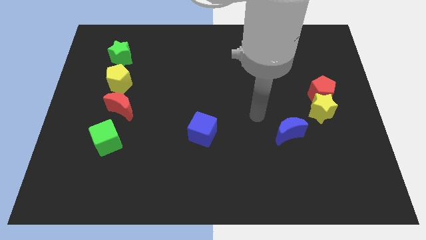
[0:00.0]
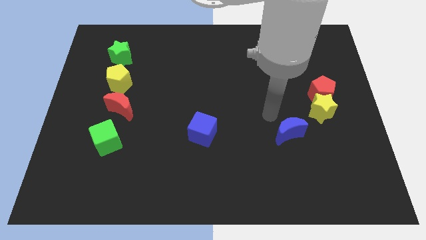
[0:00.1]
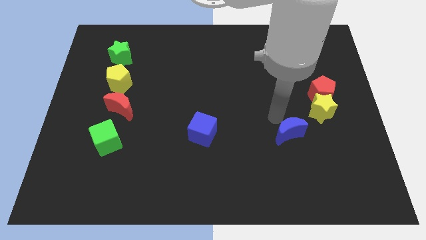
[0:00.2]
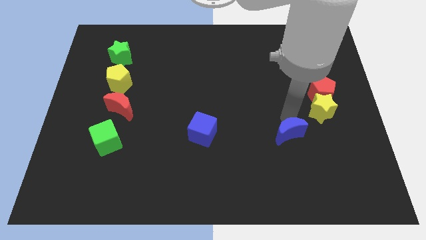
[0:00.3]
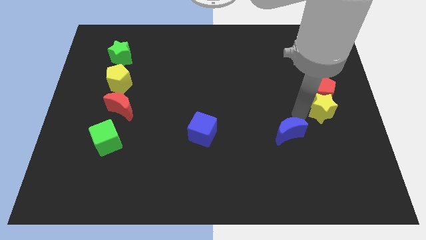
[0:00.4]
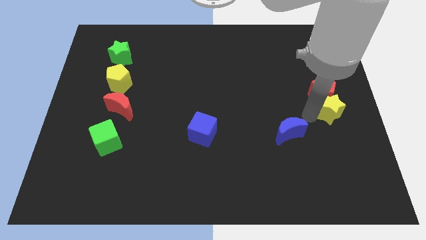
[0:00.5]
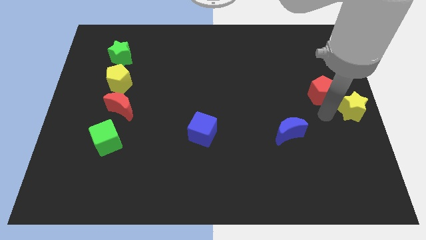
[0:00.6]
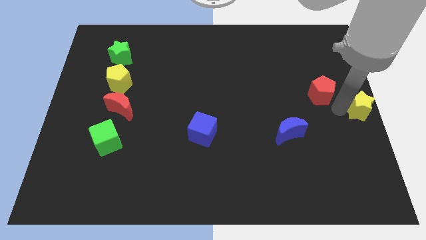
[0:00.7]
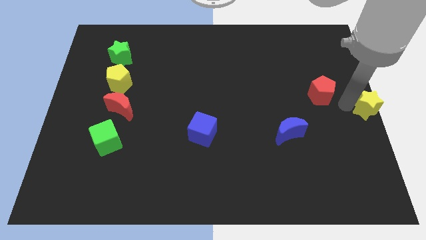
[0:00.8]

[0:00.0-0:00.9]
pull the red pentagon apart from the yellow star

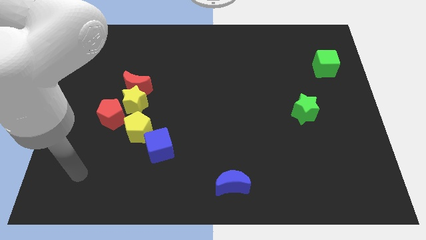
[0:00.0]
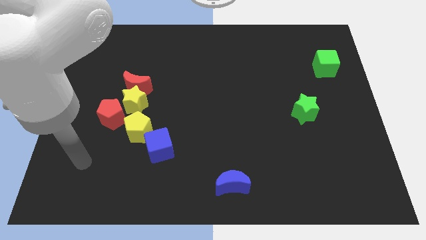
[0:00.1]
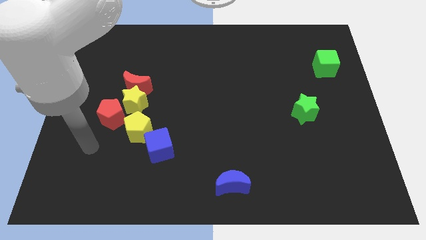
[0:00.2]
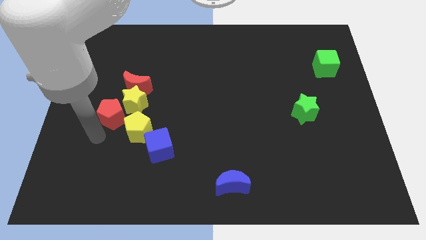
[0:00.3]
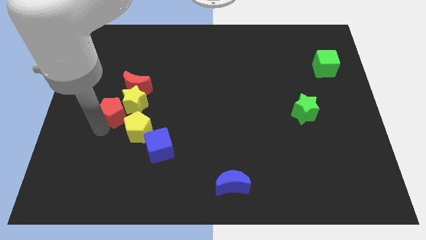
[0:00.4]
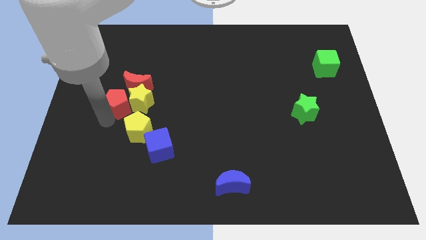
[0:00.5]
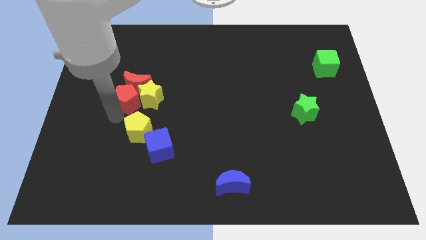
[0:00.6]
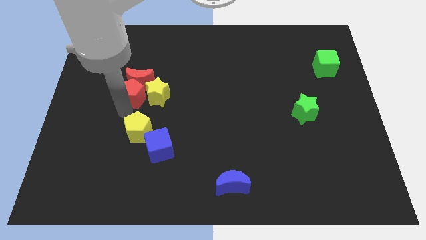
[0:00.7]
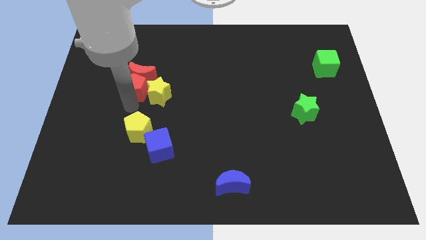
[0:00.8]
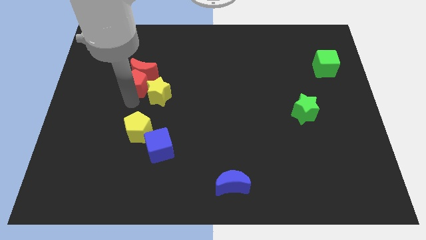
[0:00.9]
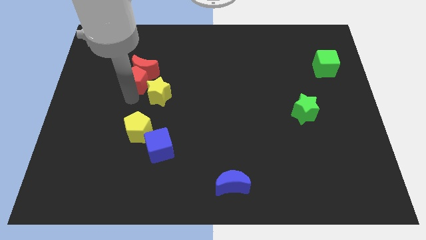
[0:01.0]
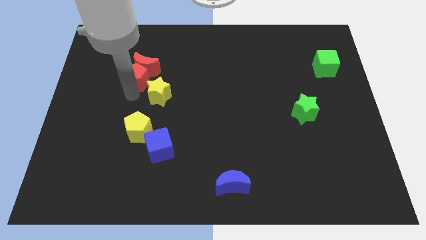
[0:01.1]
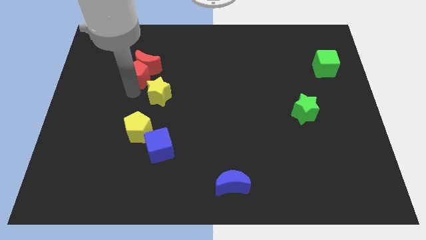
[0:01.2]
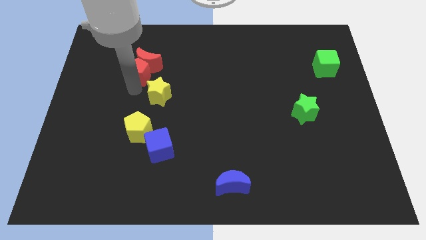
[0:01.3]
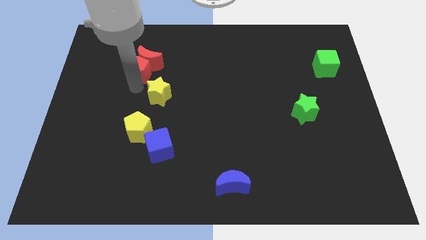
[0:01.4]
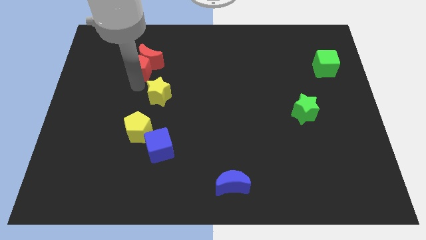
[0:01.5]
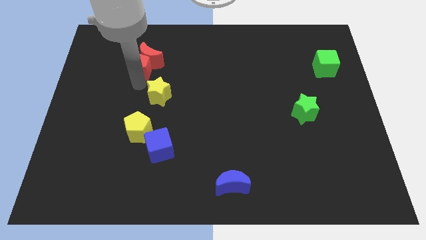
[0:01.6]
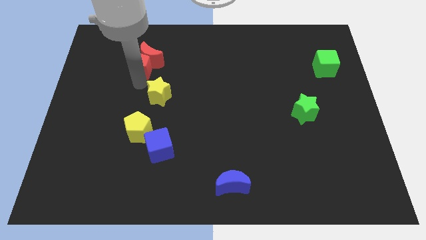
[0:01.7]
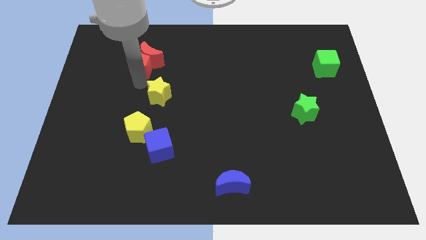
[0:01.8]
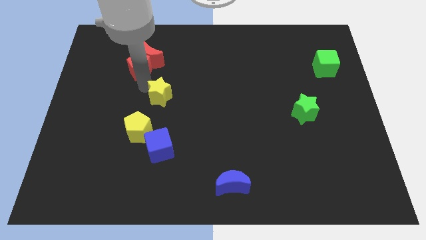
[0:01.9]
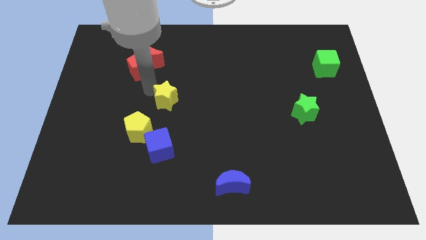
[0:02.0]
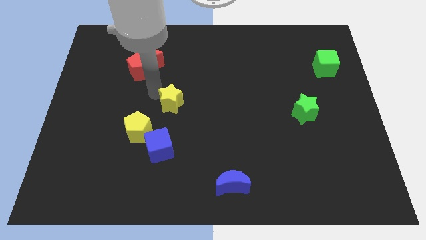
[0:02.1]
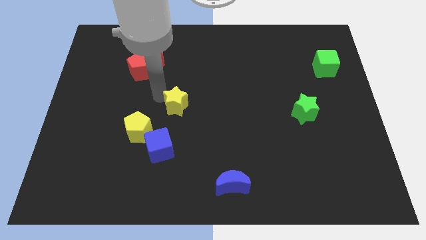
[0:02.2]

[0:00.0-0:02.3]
separate the yellow star from the red moon, red pentagon, and yellow pentagon

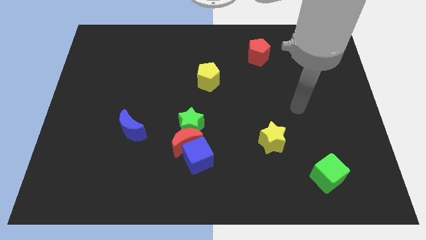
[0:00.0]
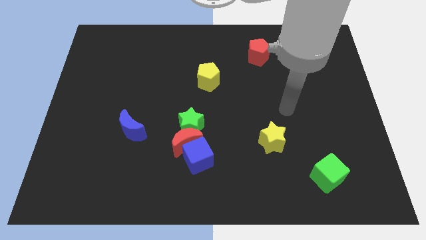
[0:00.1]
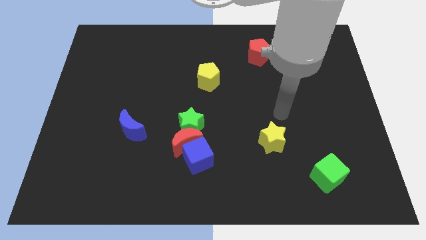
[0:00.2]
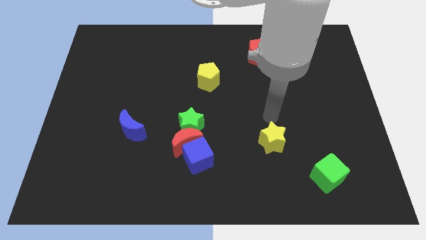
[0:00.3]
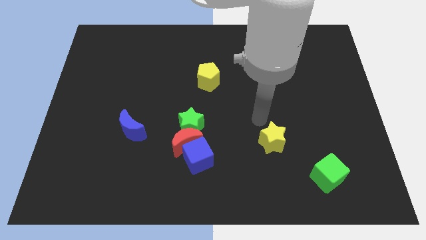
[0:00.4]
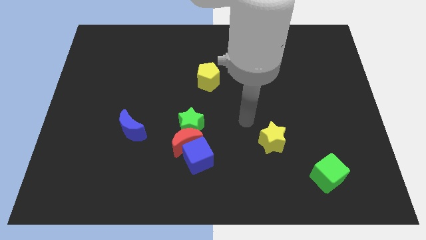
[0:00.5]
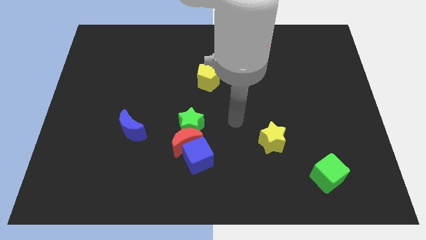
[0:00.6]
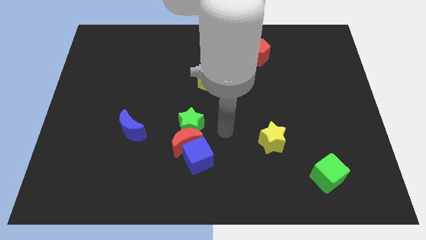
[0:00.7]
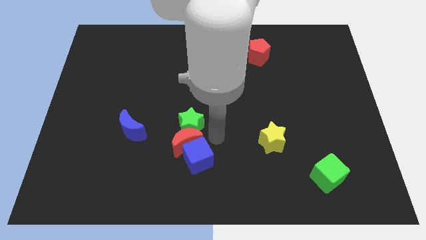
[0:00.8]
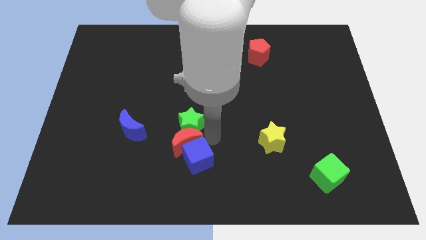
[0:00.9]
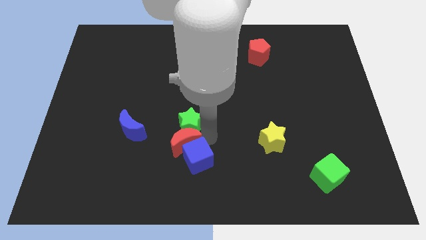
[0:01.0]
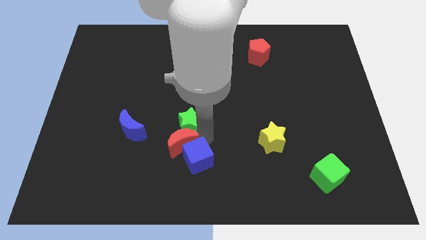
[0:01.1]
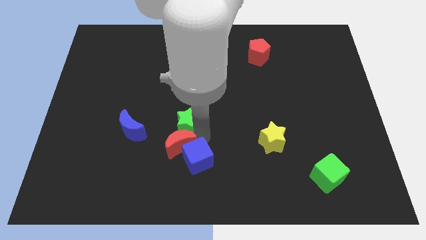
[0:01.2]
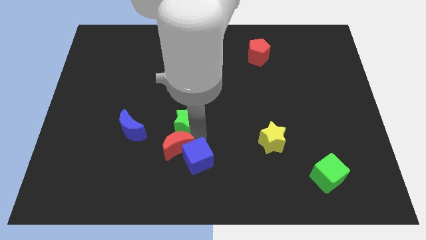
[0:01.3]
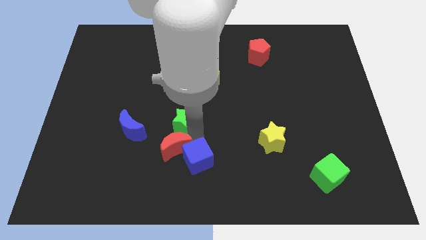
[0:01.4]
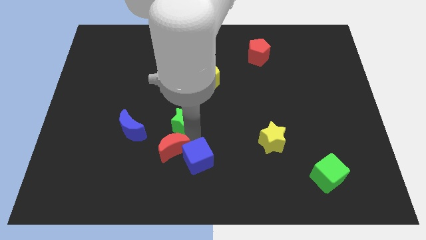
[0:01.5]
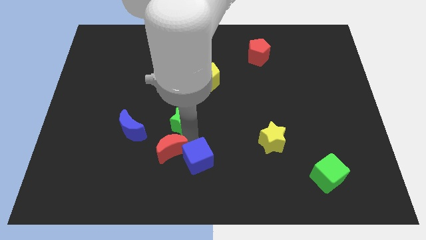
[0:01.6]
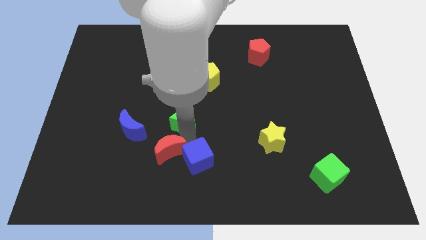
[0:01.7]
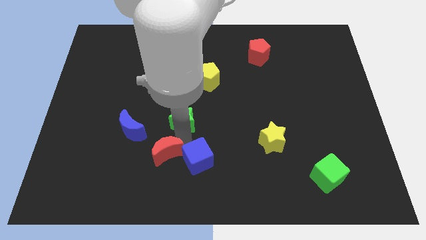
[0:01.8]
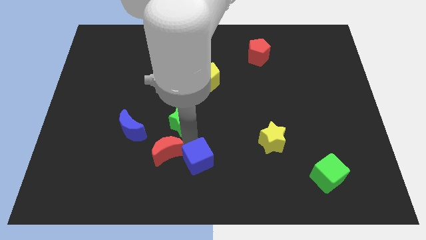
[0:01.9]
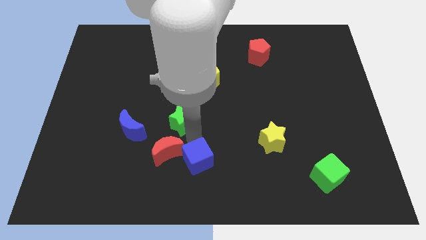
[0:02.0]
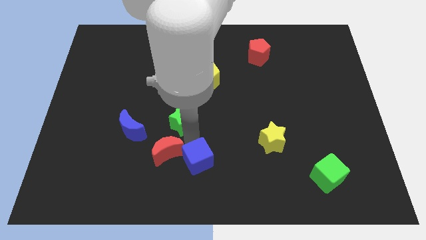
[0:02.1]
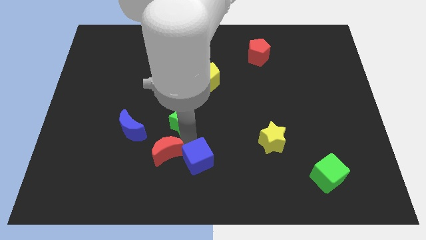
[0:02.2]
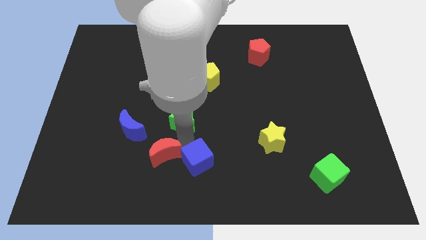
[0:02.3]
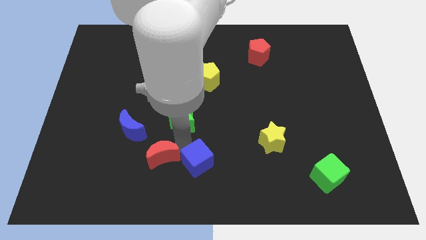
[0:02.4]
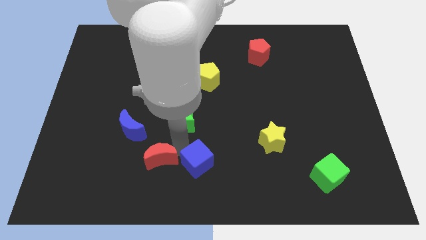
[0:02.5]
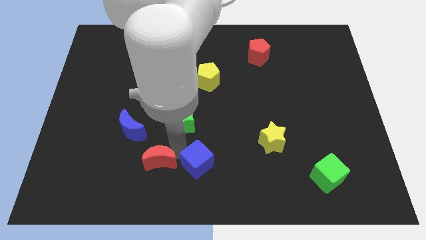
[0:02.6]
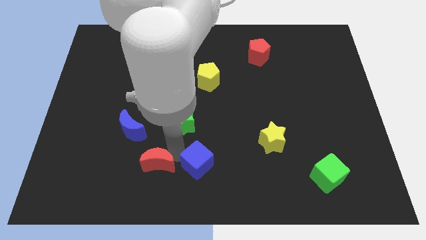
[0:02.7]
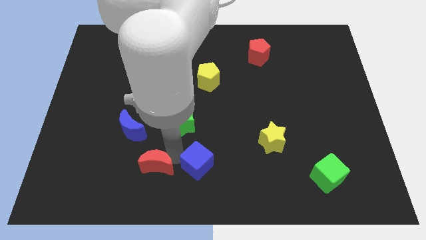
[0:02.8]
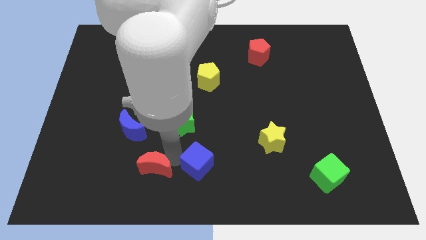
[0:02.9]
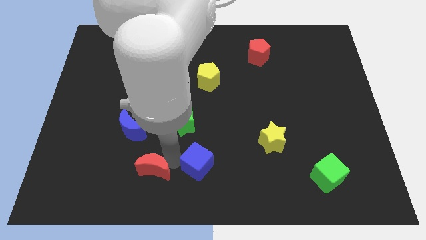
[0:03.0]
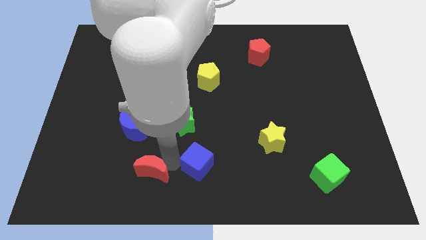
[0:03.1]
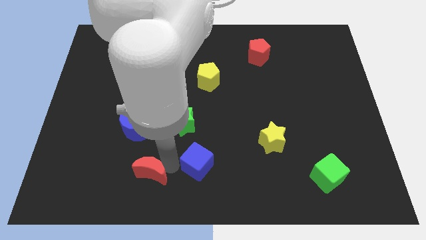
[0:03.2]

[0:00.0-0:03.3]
pull the red moon apart from the green star and blue cube

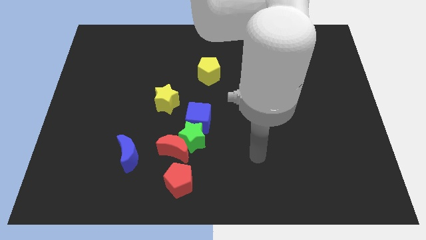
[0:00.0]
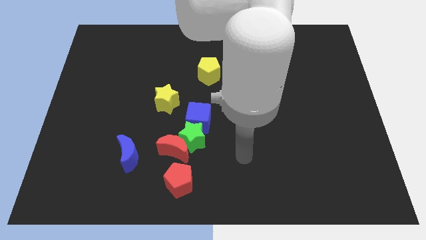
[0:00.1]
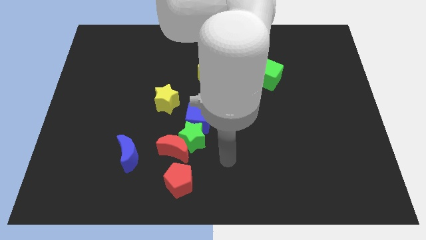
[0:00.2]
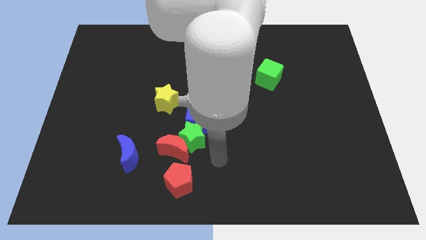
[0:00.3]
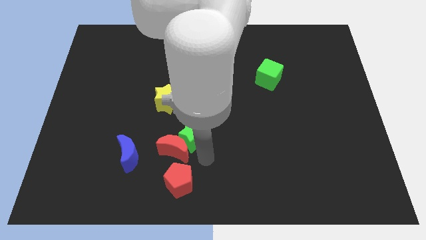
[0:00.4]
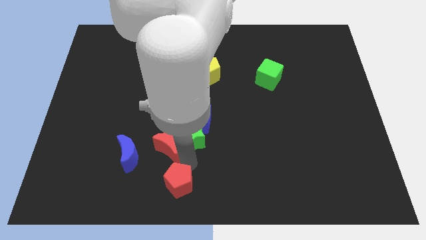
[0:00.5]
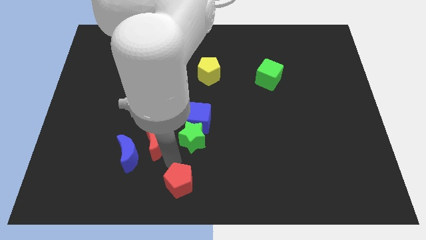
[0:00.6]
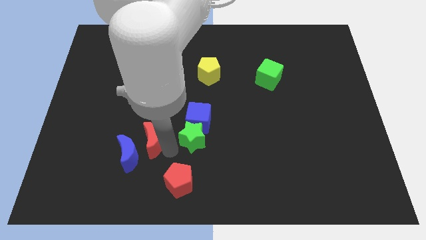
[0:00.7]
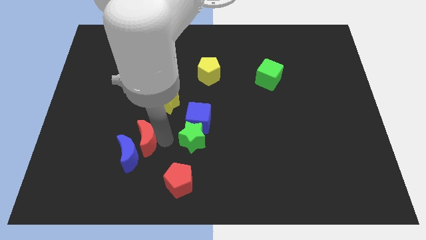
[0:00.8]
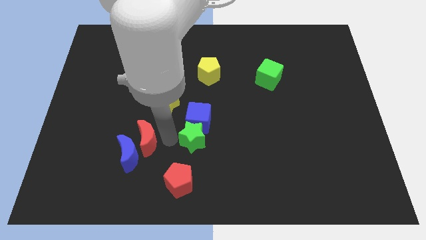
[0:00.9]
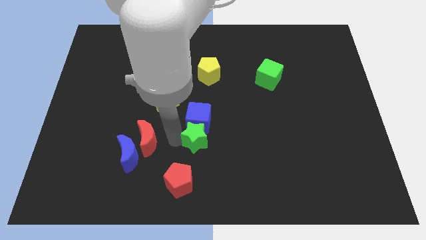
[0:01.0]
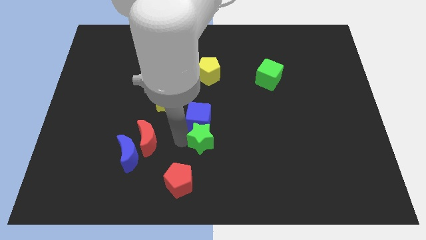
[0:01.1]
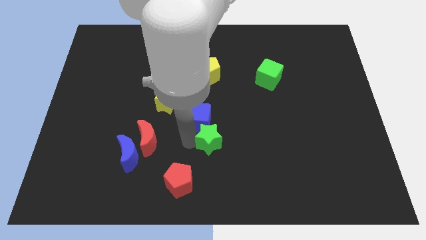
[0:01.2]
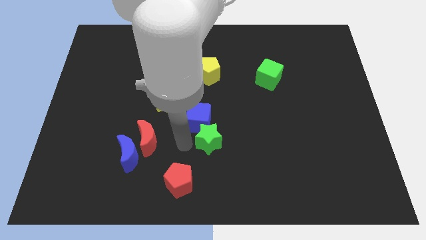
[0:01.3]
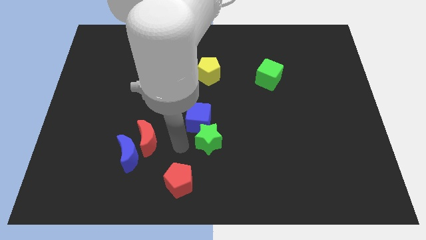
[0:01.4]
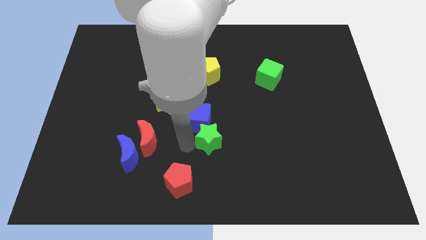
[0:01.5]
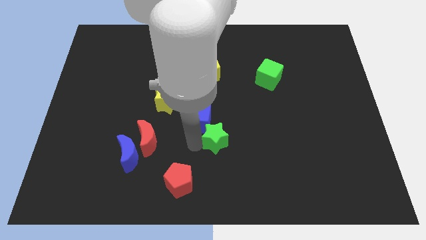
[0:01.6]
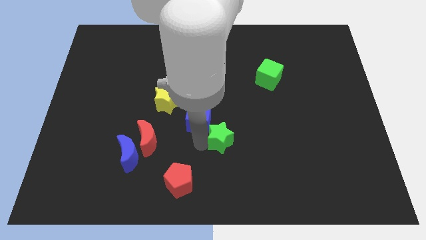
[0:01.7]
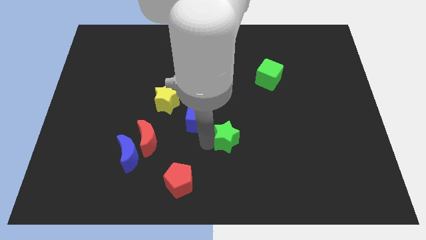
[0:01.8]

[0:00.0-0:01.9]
move the green star away from the red moon, blue cube, and red pentagon

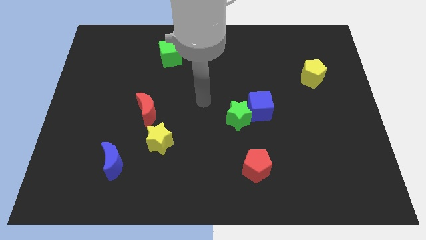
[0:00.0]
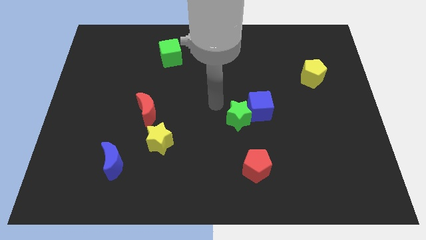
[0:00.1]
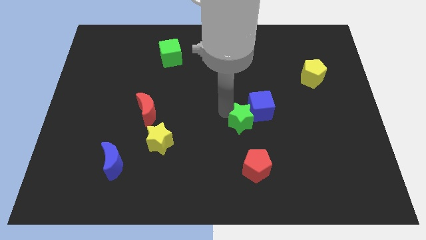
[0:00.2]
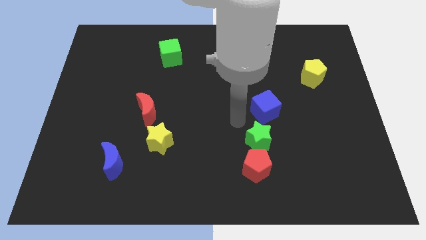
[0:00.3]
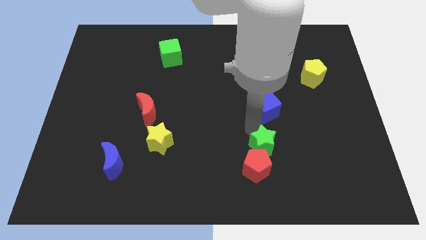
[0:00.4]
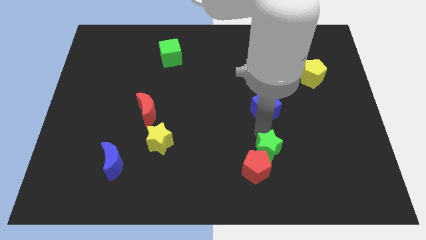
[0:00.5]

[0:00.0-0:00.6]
pull the blue cube apart from the green star

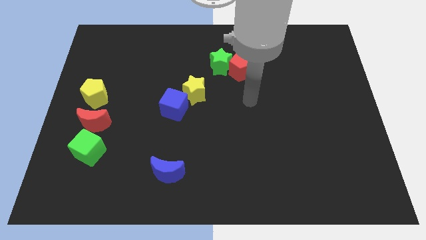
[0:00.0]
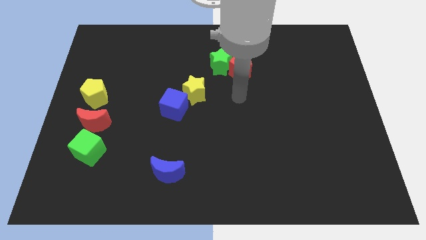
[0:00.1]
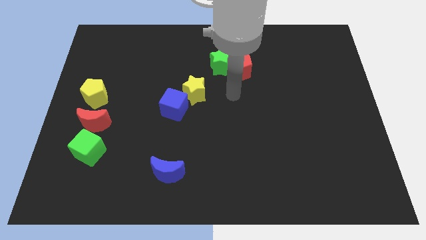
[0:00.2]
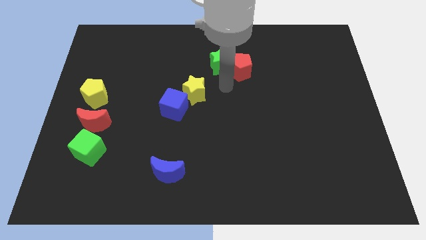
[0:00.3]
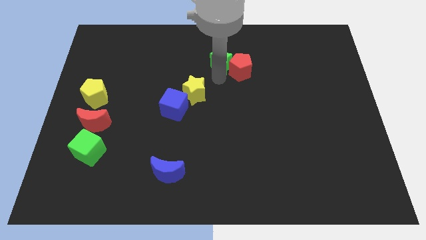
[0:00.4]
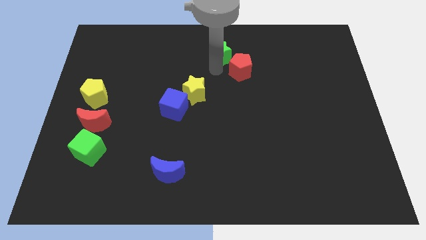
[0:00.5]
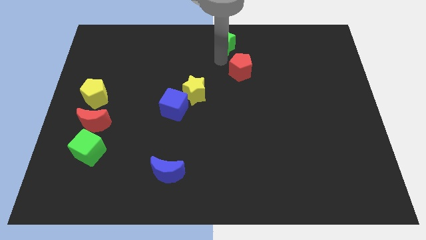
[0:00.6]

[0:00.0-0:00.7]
separate the red pentagon from the green star
